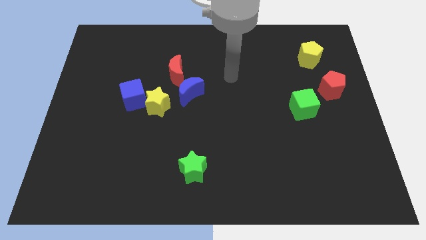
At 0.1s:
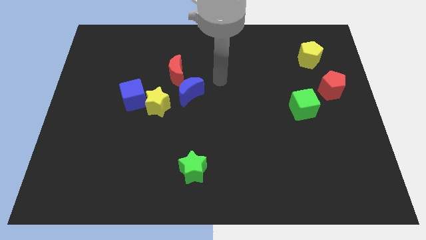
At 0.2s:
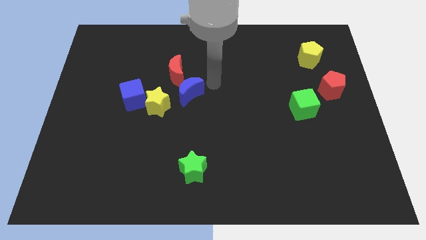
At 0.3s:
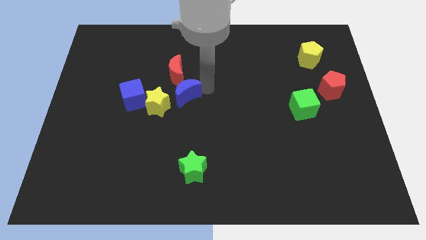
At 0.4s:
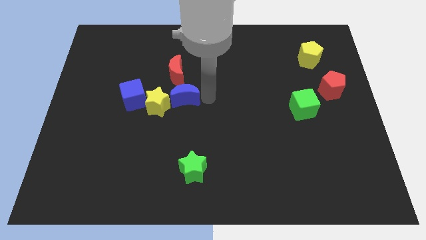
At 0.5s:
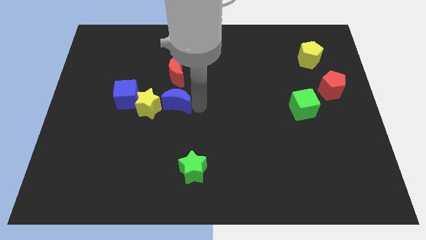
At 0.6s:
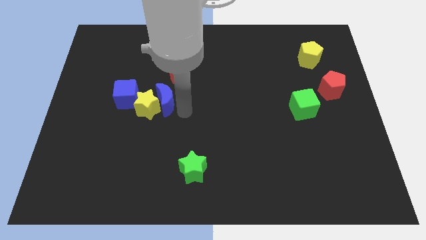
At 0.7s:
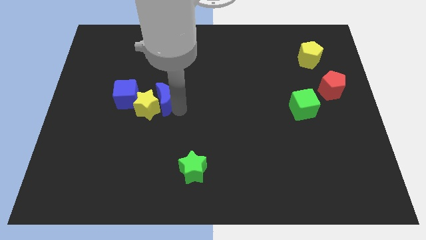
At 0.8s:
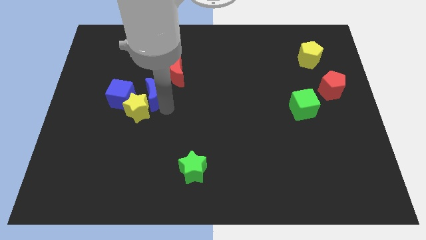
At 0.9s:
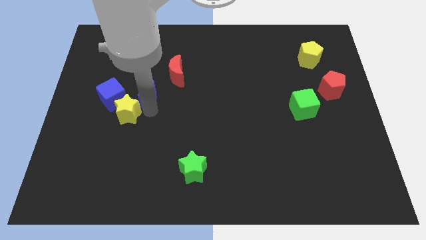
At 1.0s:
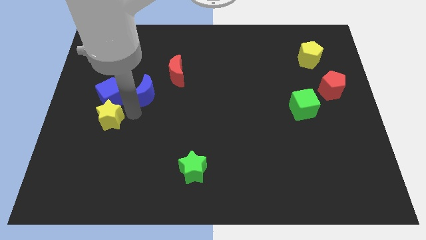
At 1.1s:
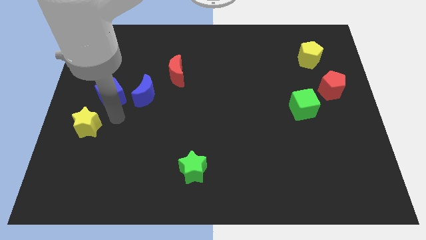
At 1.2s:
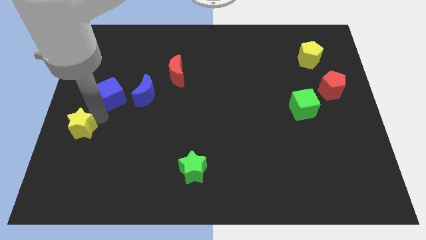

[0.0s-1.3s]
pull the blue cube apart from the yellow star

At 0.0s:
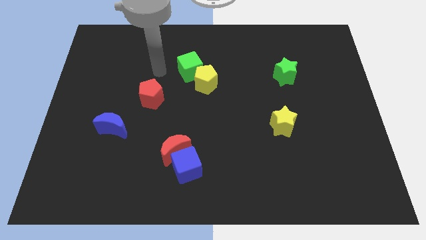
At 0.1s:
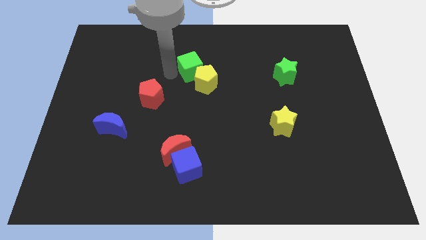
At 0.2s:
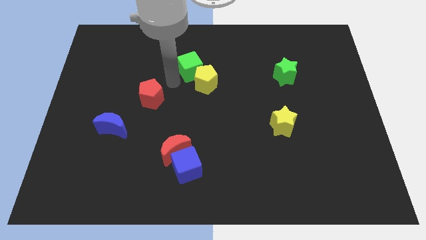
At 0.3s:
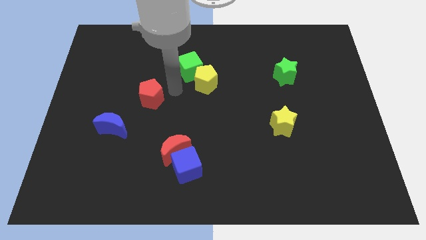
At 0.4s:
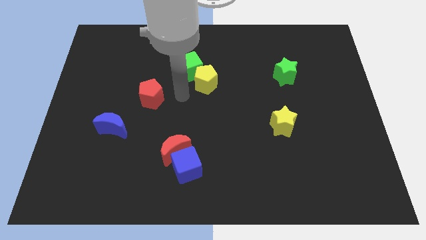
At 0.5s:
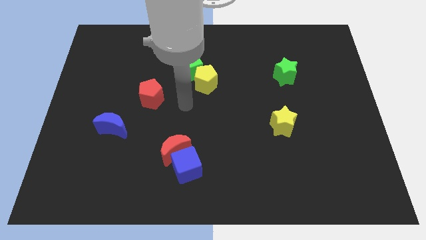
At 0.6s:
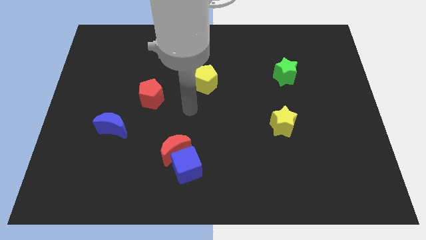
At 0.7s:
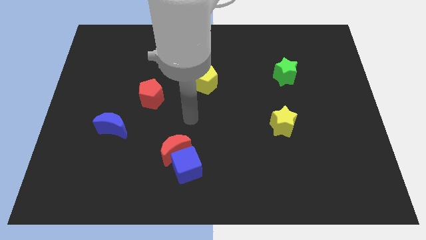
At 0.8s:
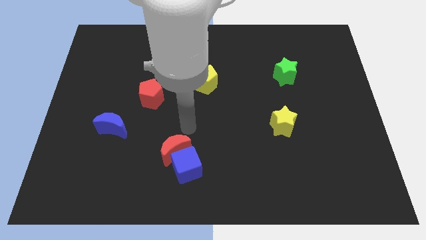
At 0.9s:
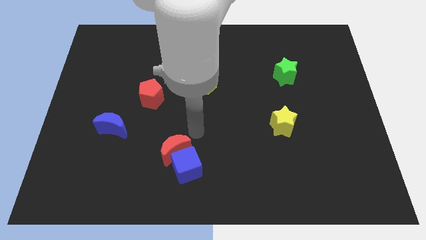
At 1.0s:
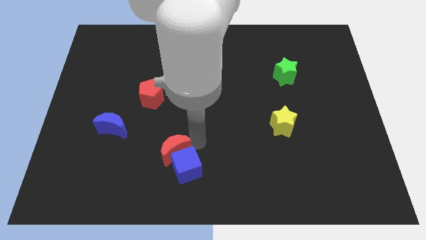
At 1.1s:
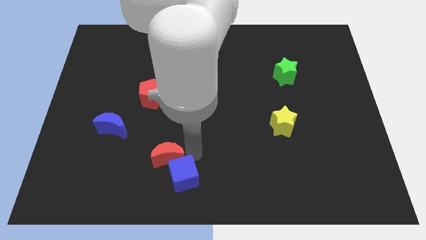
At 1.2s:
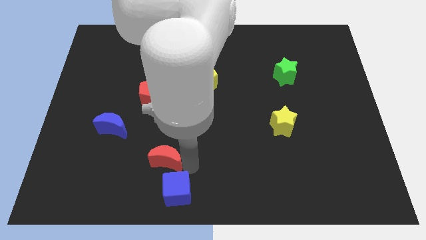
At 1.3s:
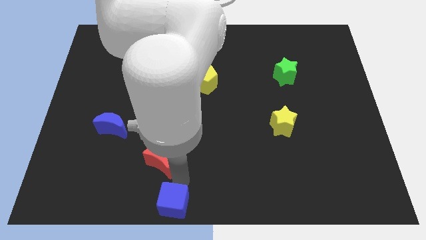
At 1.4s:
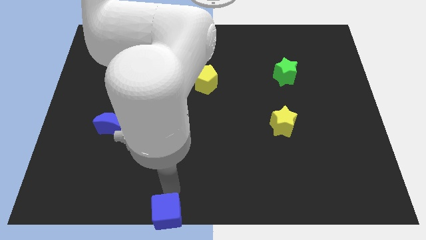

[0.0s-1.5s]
pull the red moon apart from the blue cube

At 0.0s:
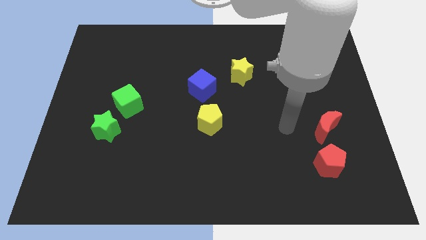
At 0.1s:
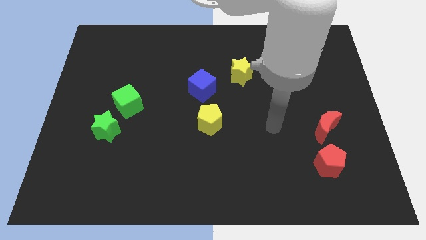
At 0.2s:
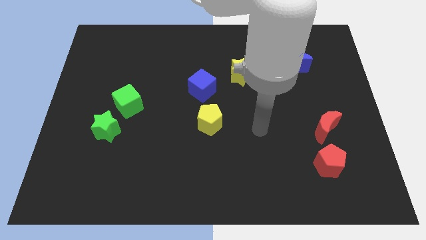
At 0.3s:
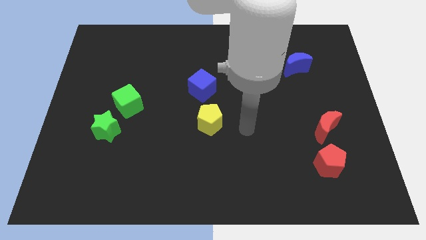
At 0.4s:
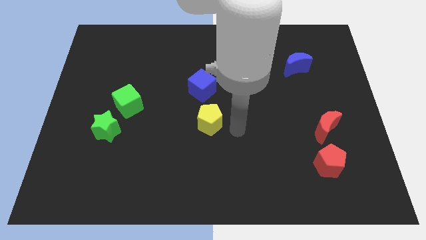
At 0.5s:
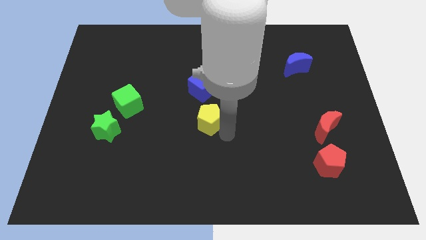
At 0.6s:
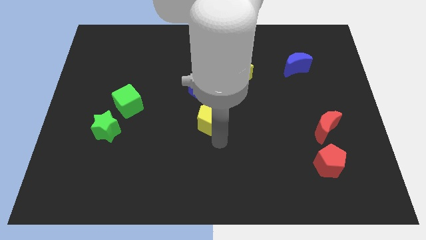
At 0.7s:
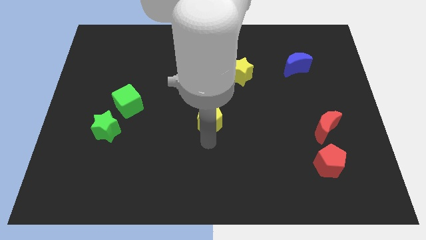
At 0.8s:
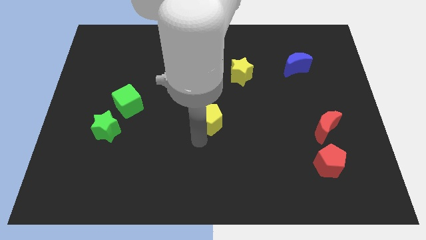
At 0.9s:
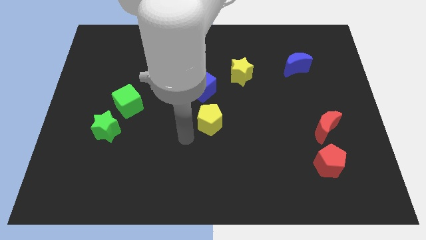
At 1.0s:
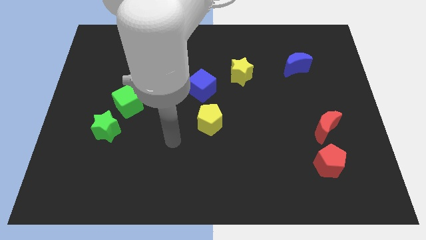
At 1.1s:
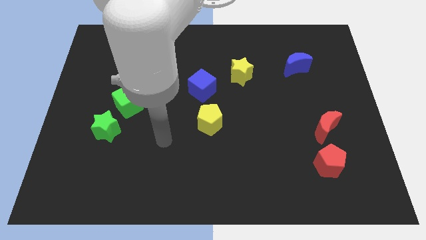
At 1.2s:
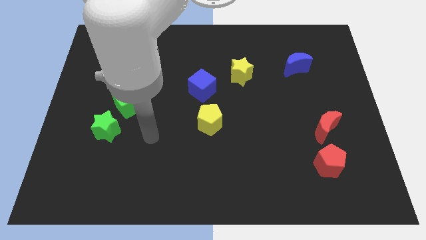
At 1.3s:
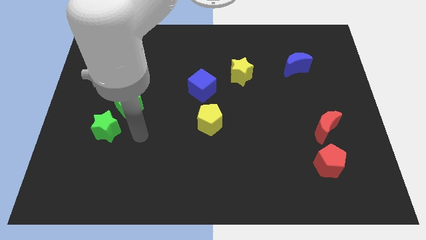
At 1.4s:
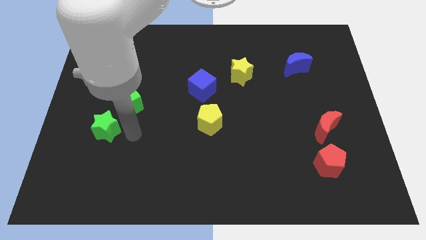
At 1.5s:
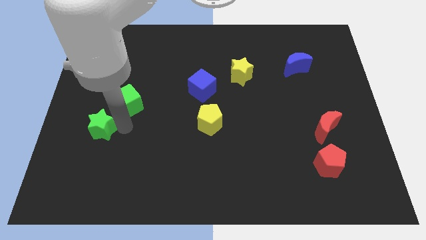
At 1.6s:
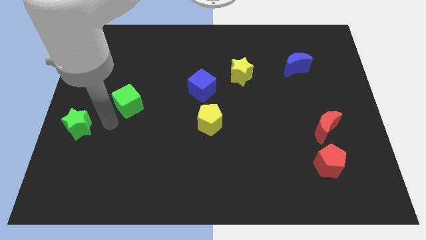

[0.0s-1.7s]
pull the green cube apart from the green star

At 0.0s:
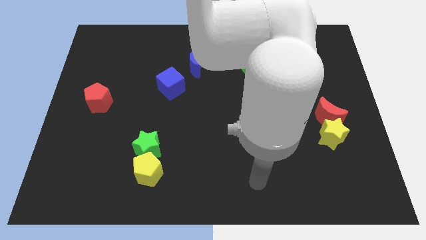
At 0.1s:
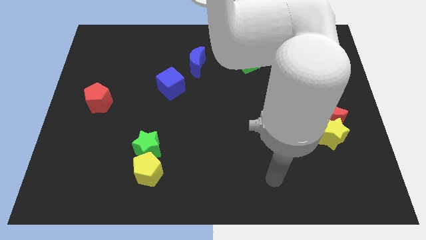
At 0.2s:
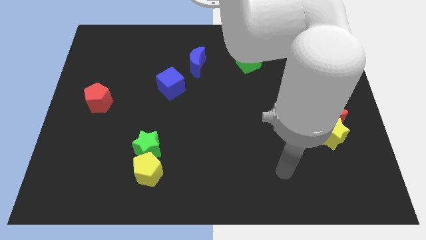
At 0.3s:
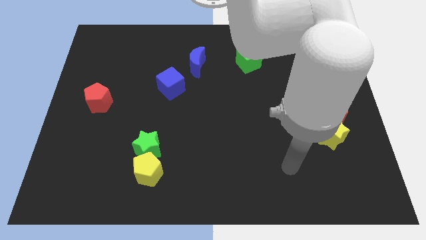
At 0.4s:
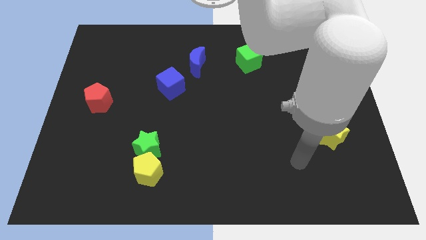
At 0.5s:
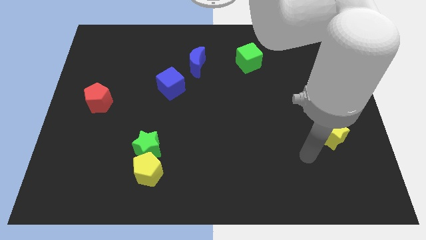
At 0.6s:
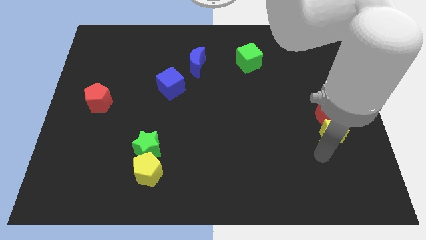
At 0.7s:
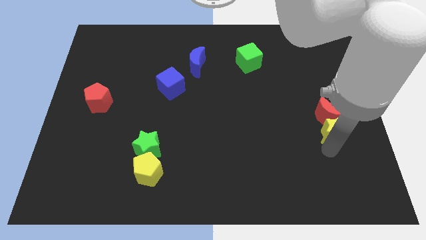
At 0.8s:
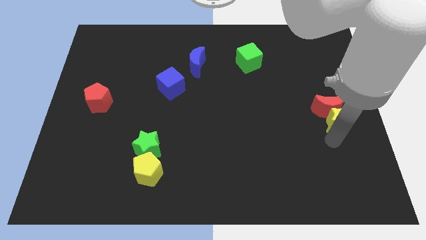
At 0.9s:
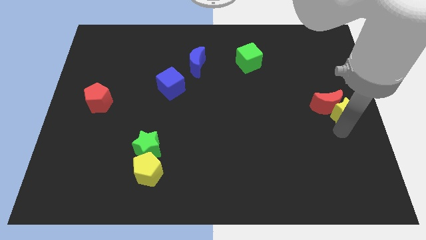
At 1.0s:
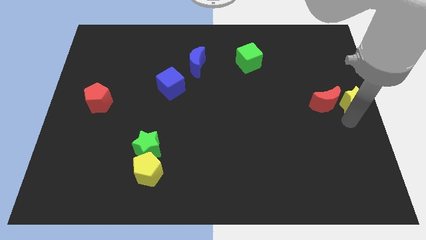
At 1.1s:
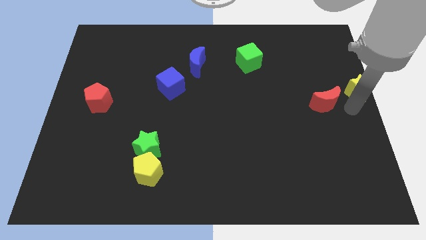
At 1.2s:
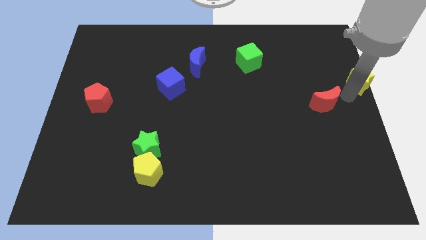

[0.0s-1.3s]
move the red moon away from the yellow star

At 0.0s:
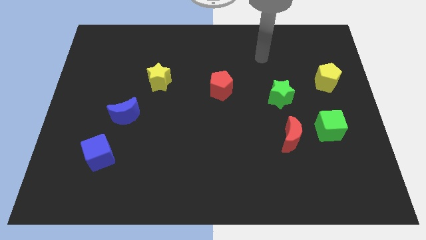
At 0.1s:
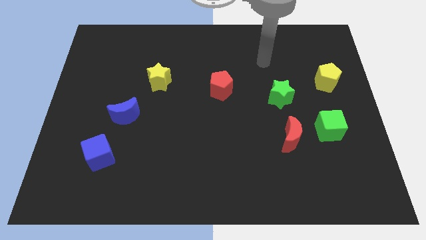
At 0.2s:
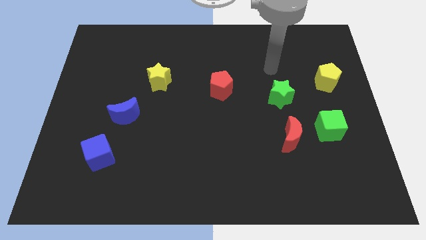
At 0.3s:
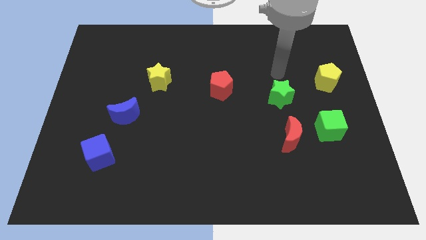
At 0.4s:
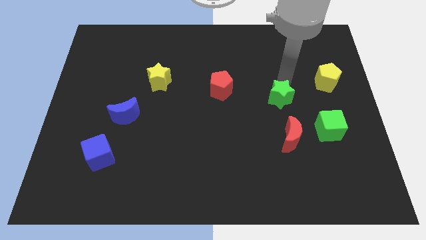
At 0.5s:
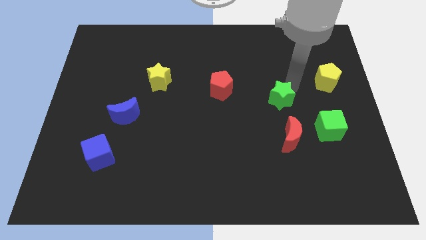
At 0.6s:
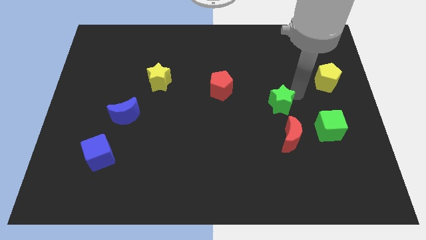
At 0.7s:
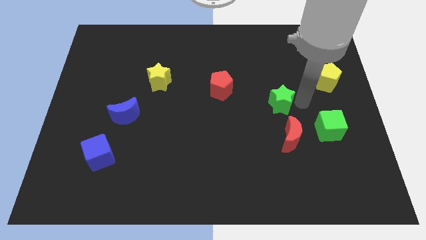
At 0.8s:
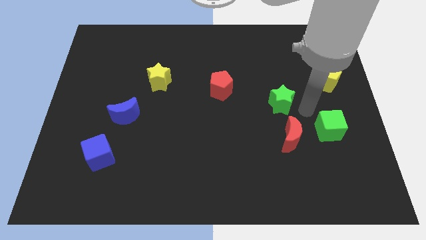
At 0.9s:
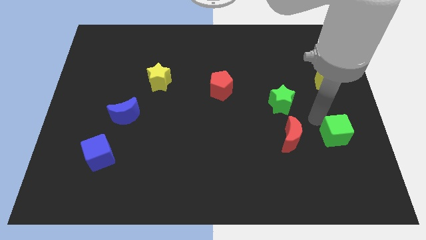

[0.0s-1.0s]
separate the red moon from the green cube

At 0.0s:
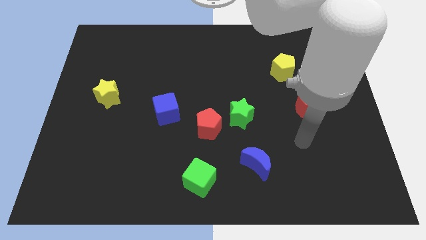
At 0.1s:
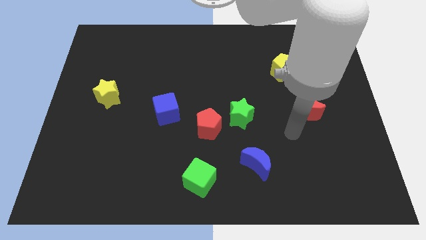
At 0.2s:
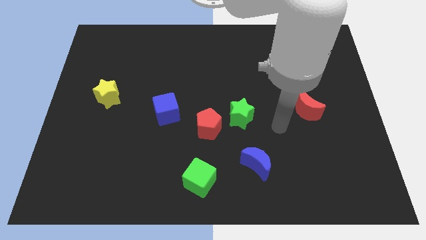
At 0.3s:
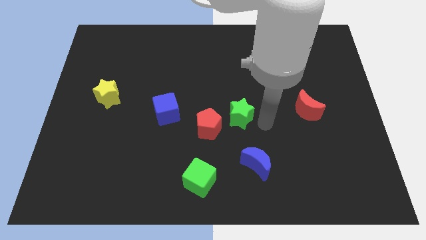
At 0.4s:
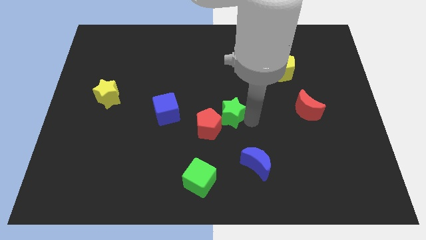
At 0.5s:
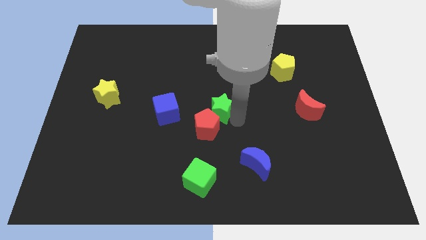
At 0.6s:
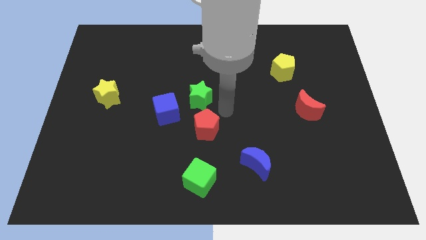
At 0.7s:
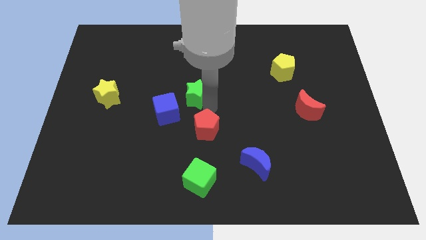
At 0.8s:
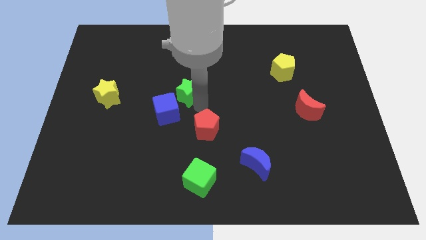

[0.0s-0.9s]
pull the red pentagon apart from the green star

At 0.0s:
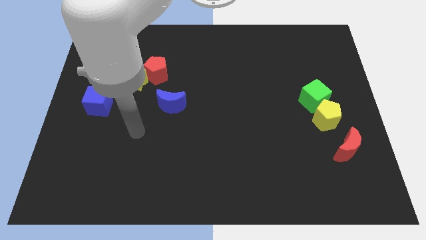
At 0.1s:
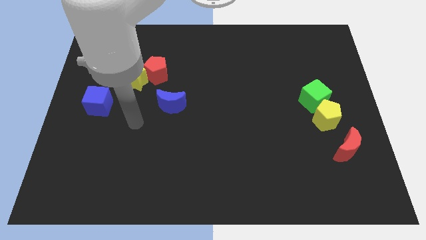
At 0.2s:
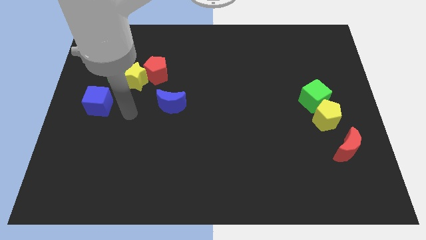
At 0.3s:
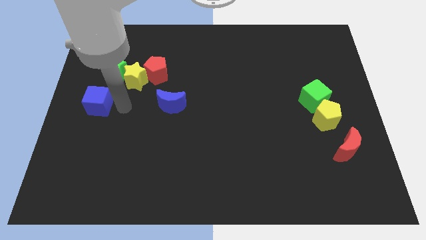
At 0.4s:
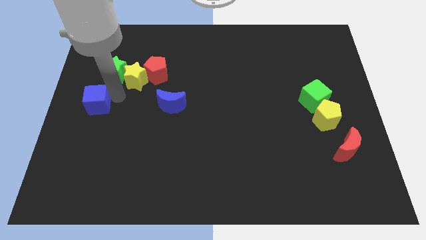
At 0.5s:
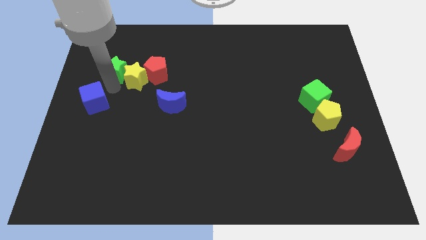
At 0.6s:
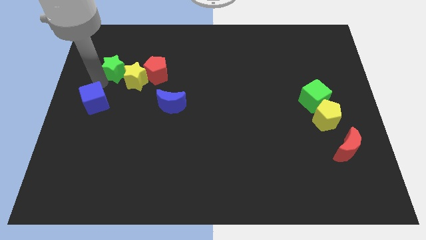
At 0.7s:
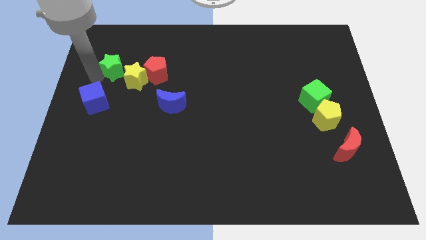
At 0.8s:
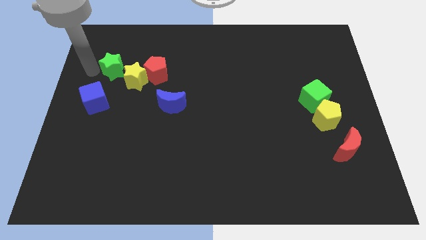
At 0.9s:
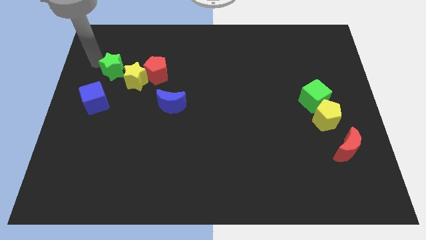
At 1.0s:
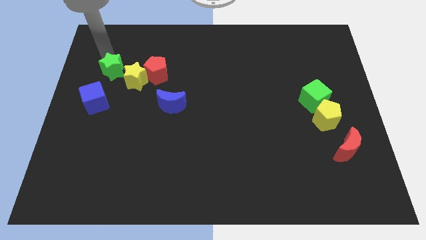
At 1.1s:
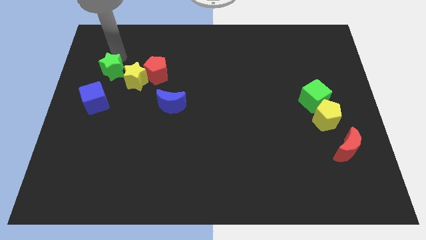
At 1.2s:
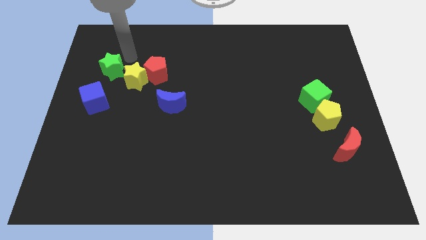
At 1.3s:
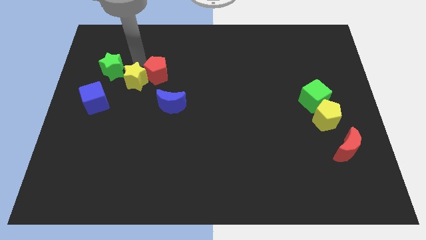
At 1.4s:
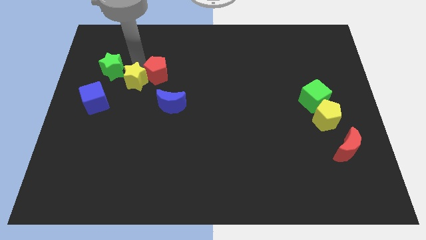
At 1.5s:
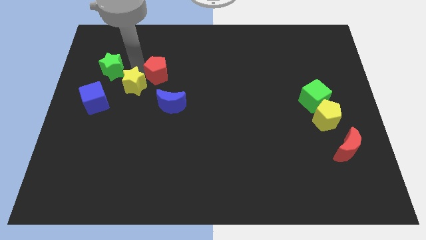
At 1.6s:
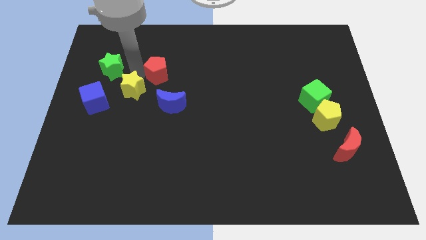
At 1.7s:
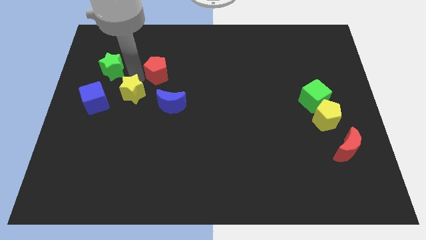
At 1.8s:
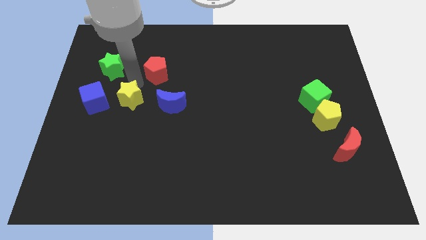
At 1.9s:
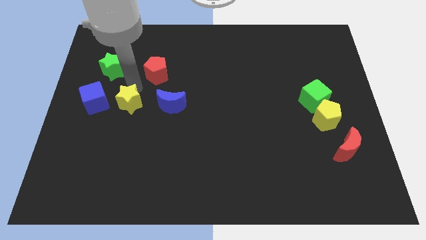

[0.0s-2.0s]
separate the yellow star from the red pentagon and green star
